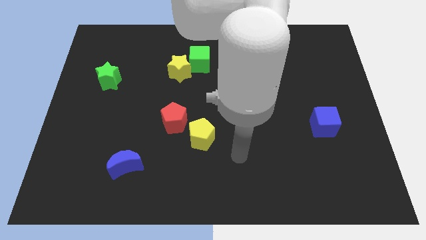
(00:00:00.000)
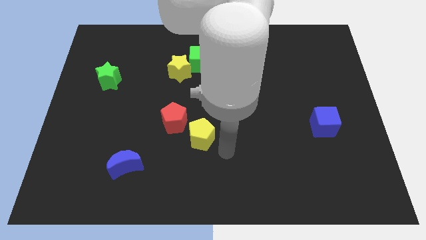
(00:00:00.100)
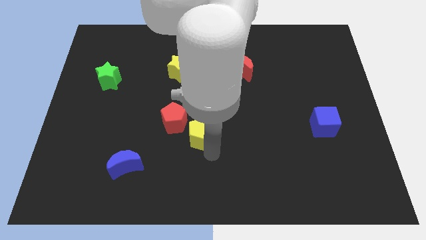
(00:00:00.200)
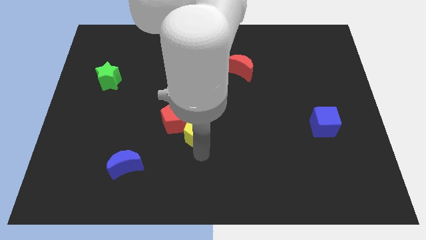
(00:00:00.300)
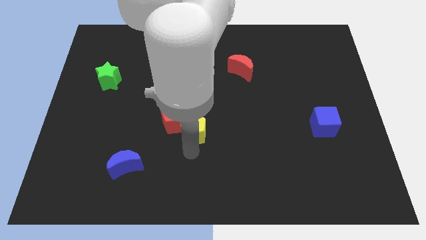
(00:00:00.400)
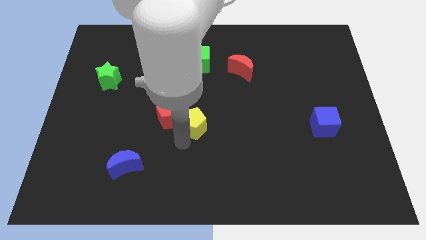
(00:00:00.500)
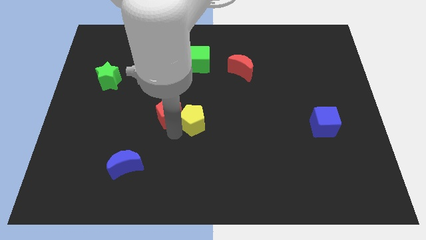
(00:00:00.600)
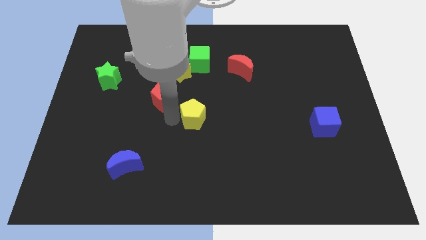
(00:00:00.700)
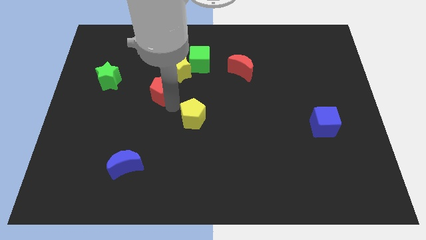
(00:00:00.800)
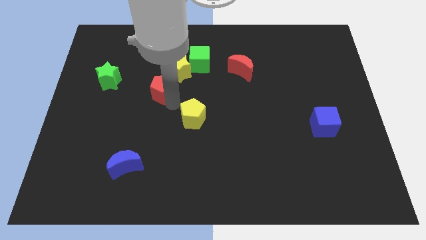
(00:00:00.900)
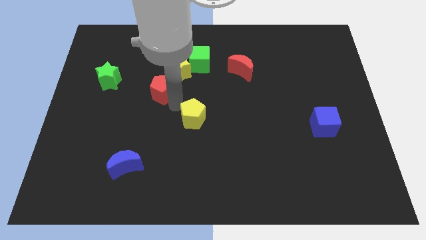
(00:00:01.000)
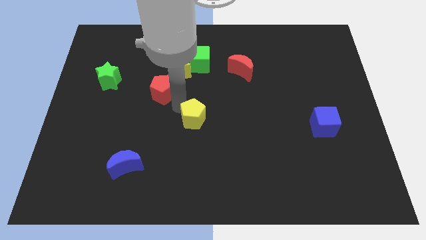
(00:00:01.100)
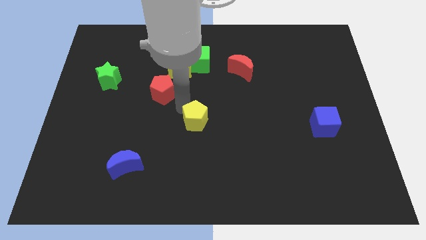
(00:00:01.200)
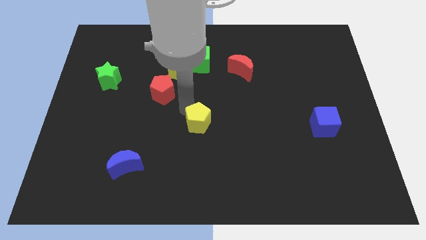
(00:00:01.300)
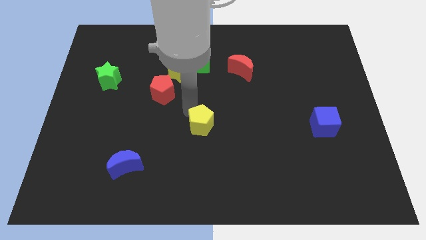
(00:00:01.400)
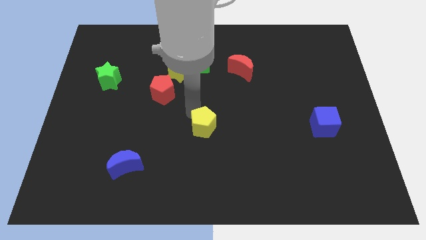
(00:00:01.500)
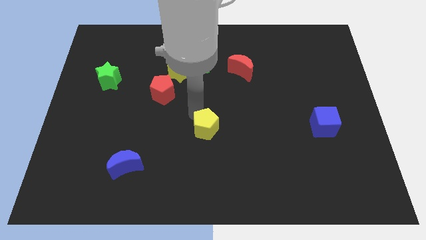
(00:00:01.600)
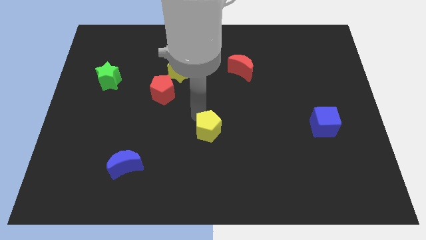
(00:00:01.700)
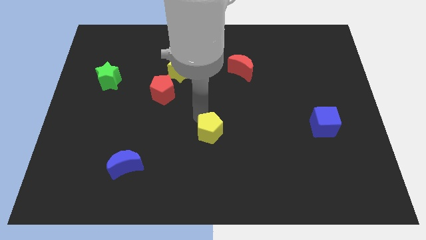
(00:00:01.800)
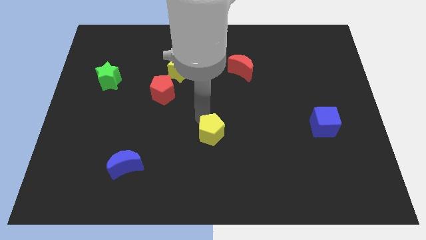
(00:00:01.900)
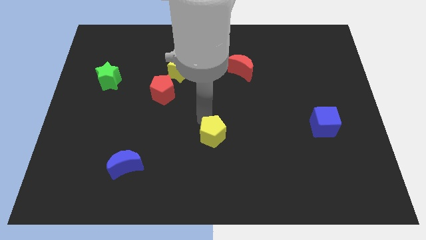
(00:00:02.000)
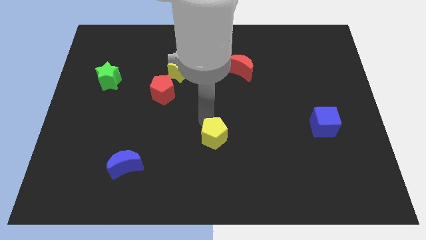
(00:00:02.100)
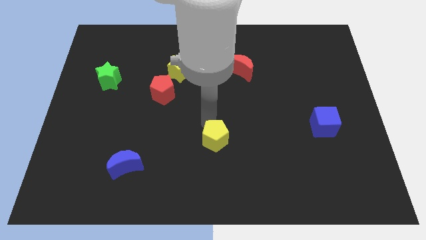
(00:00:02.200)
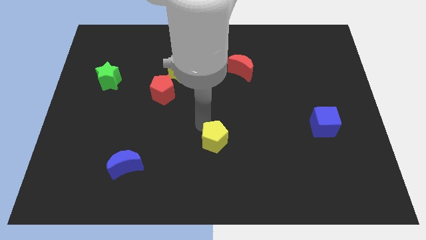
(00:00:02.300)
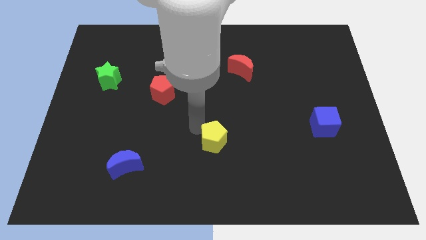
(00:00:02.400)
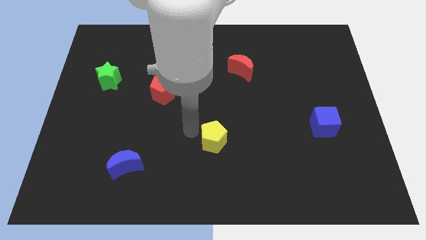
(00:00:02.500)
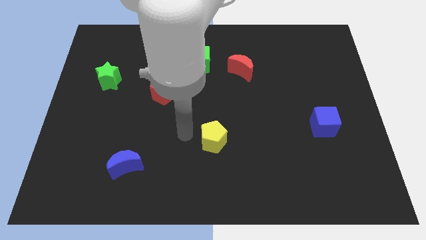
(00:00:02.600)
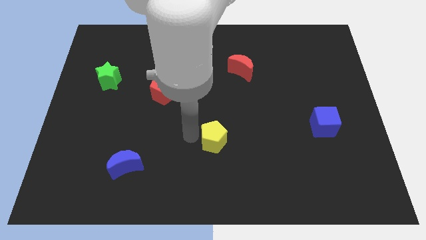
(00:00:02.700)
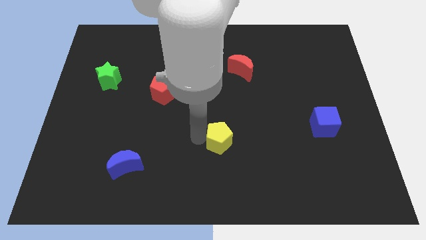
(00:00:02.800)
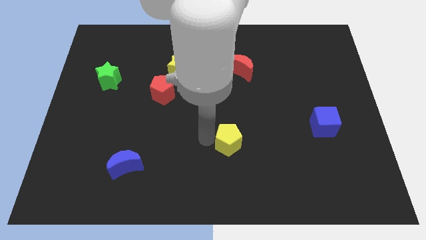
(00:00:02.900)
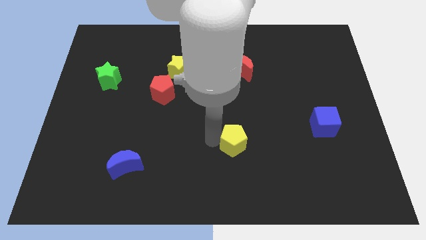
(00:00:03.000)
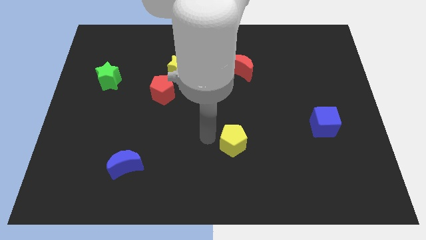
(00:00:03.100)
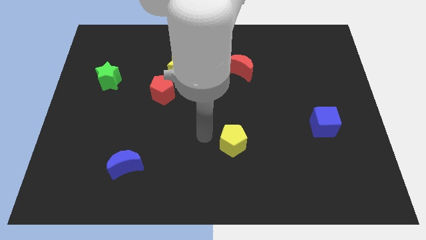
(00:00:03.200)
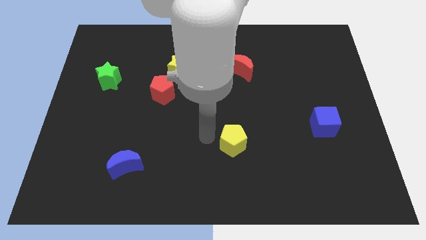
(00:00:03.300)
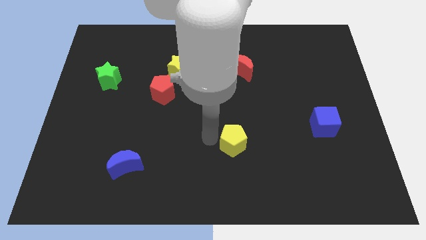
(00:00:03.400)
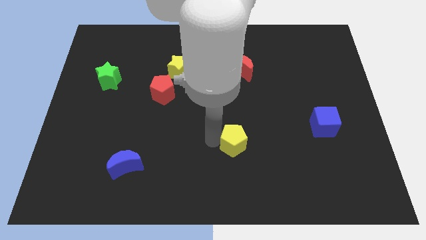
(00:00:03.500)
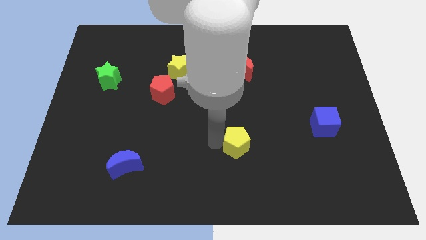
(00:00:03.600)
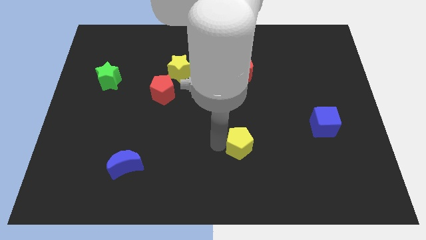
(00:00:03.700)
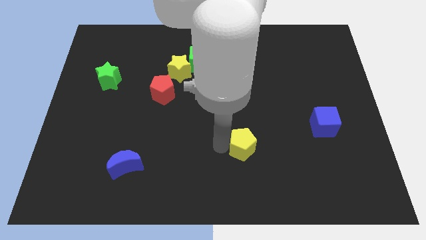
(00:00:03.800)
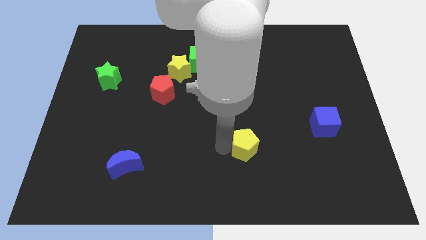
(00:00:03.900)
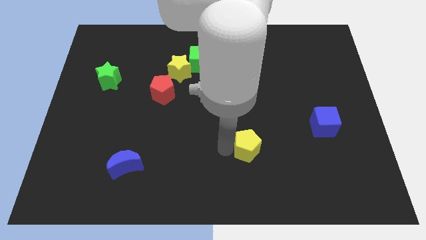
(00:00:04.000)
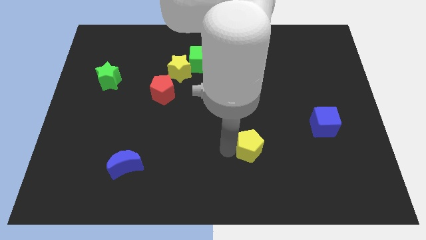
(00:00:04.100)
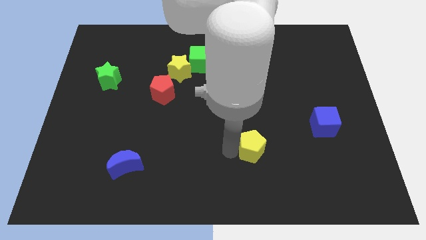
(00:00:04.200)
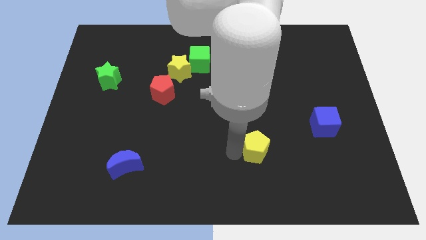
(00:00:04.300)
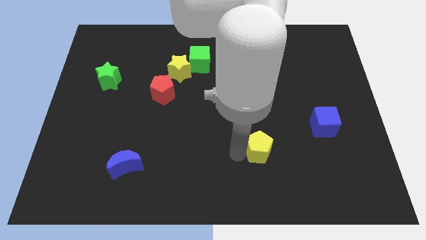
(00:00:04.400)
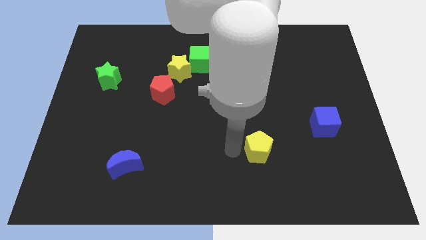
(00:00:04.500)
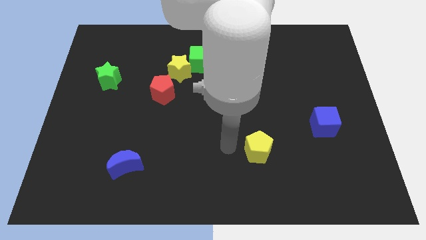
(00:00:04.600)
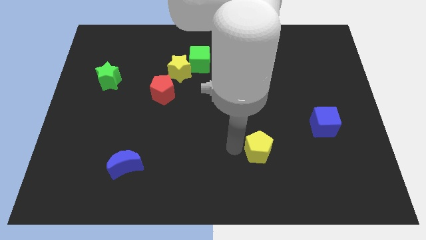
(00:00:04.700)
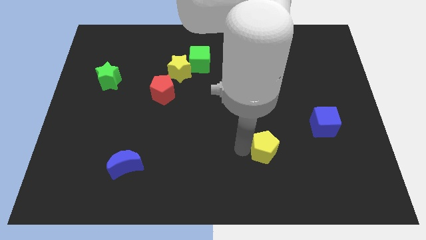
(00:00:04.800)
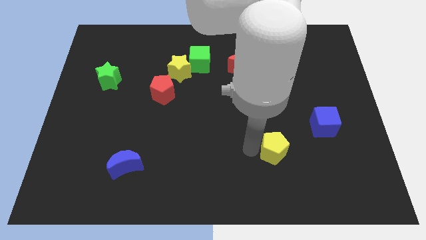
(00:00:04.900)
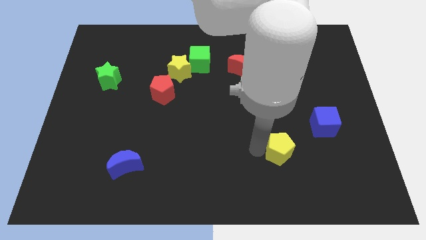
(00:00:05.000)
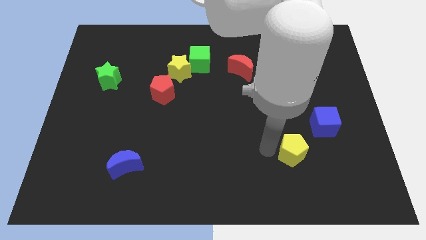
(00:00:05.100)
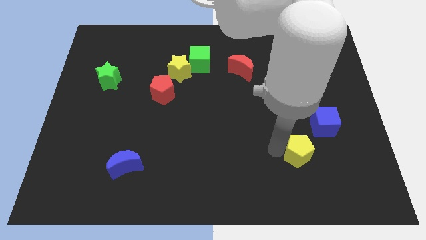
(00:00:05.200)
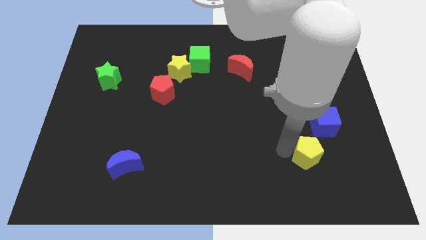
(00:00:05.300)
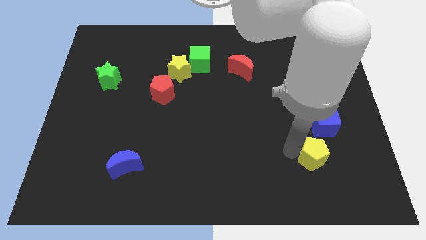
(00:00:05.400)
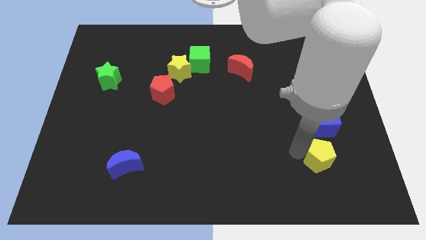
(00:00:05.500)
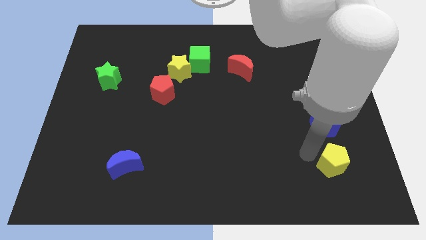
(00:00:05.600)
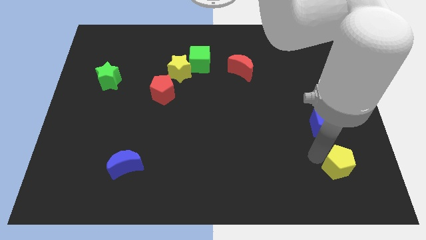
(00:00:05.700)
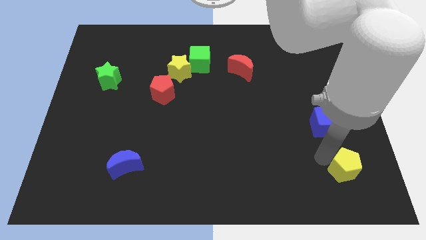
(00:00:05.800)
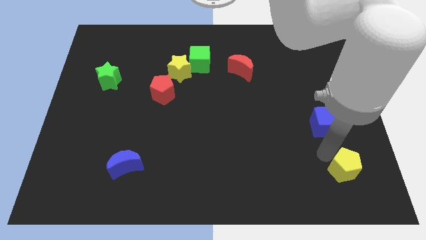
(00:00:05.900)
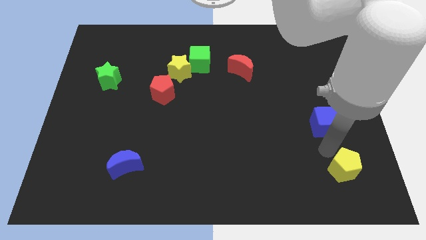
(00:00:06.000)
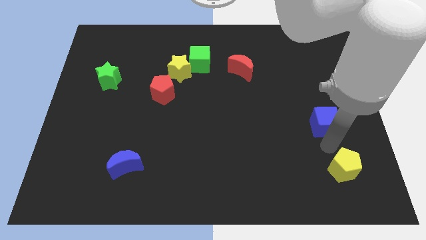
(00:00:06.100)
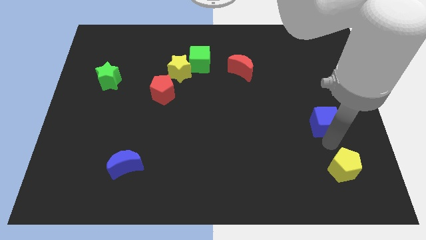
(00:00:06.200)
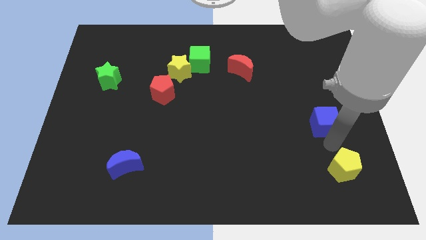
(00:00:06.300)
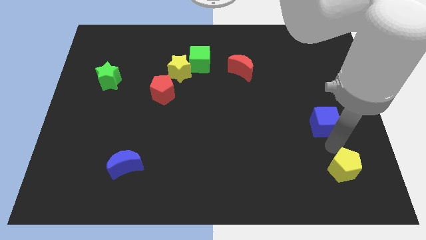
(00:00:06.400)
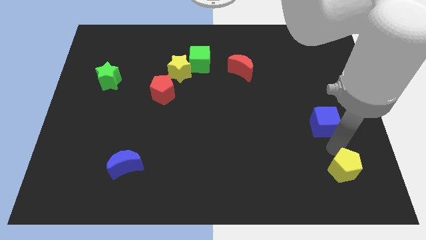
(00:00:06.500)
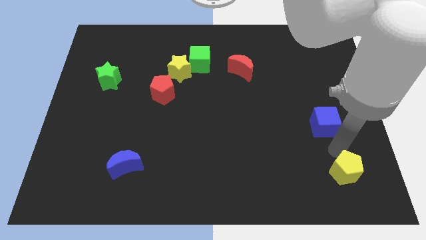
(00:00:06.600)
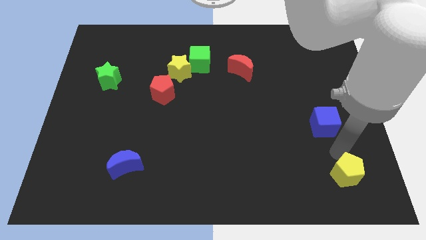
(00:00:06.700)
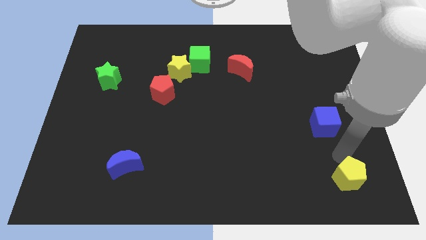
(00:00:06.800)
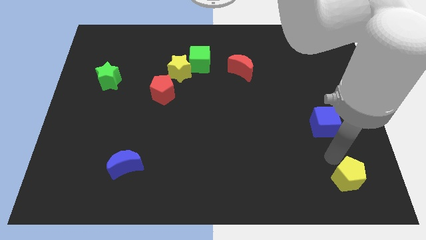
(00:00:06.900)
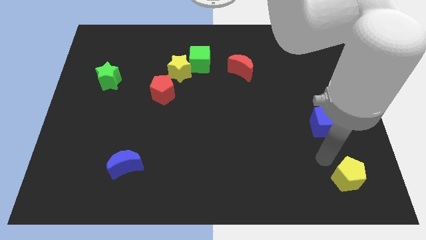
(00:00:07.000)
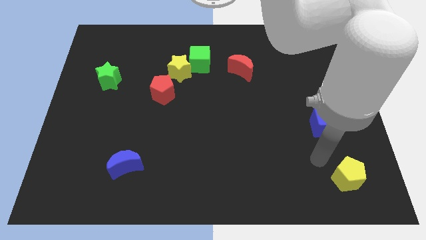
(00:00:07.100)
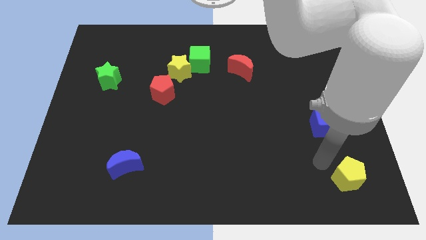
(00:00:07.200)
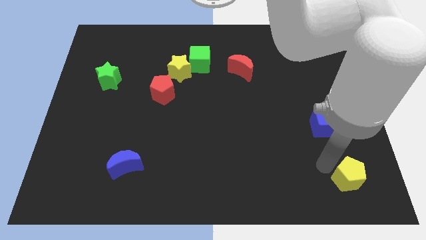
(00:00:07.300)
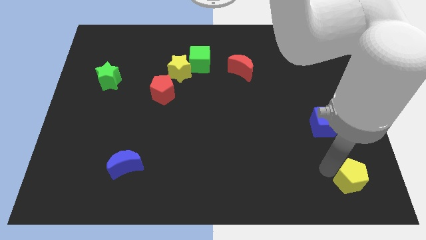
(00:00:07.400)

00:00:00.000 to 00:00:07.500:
move the yellow pentagon to the bottom right of the board
